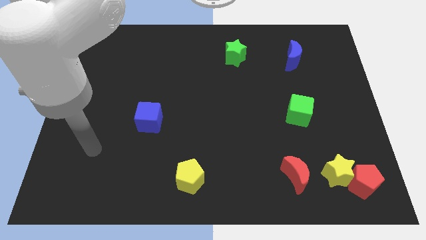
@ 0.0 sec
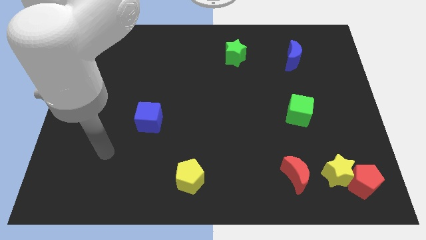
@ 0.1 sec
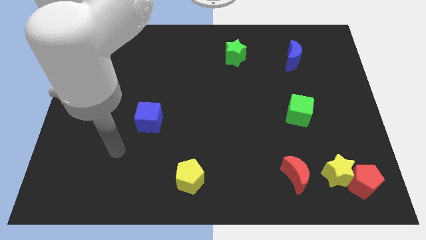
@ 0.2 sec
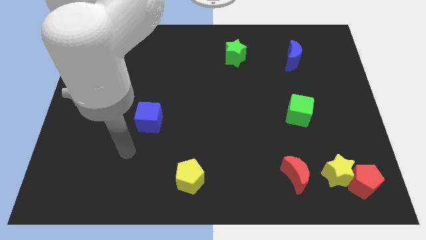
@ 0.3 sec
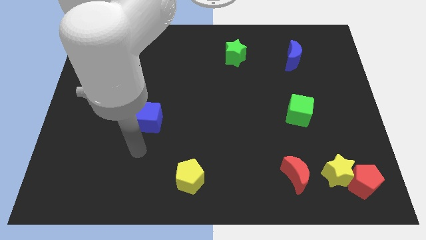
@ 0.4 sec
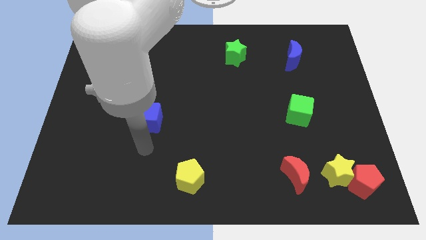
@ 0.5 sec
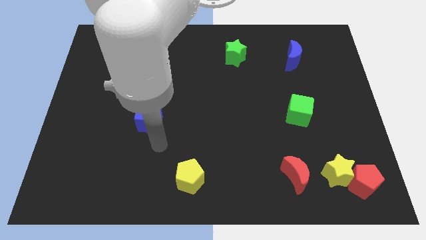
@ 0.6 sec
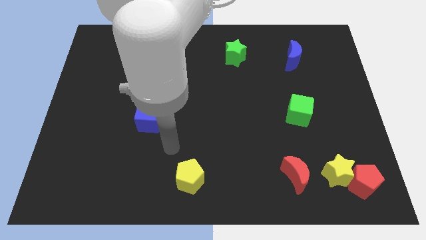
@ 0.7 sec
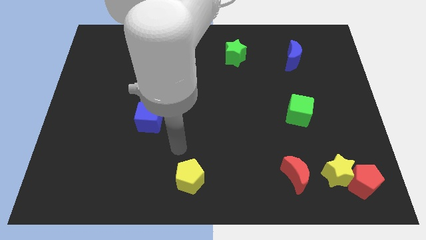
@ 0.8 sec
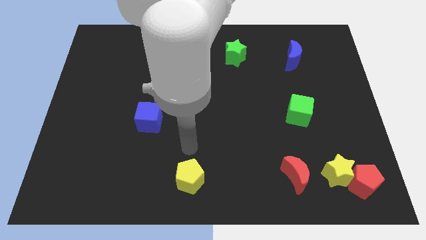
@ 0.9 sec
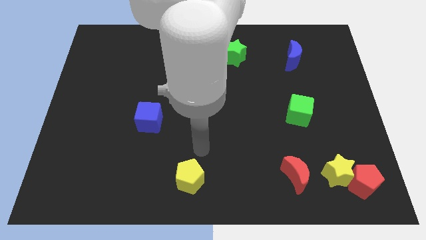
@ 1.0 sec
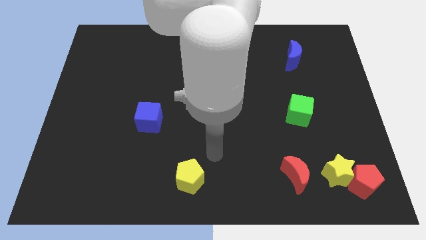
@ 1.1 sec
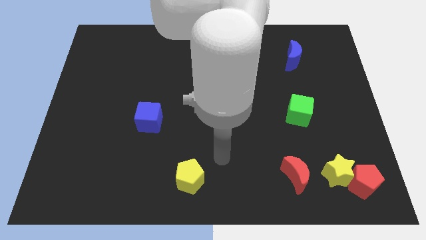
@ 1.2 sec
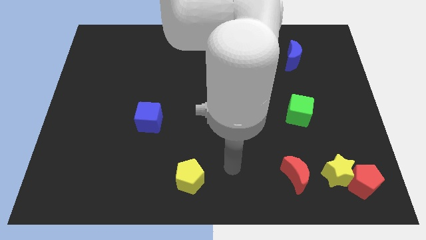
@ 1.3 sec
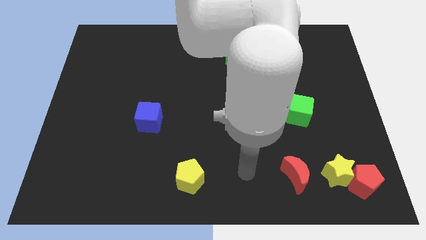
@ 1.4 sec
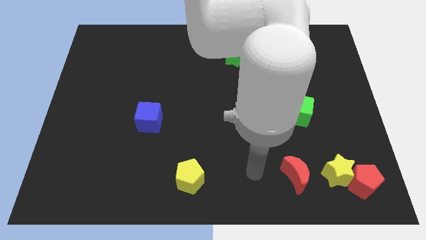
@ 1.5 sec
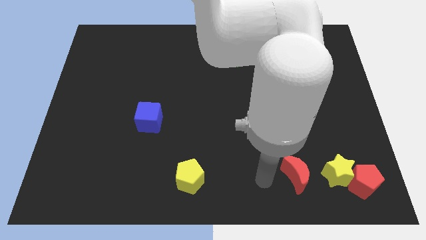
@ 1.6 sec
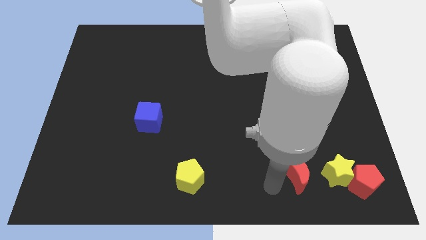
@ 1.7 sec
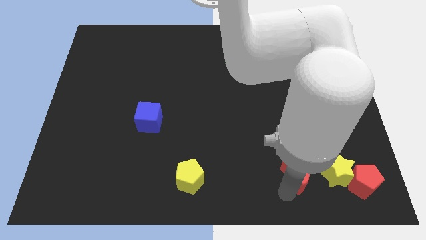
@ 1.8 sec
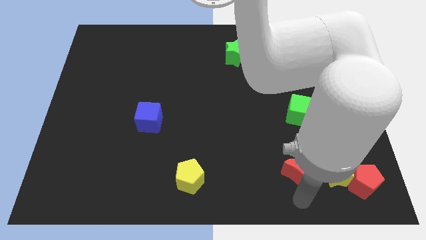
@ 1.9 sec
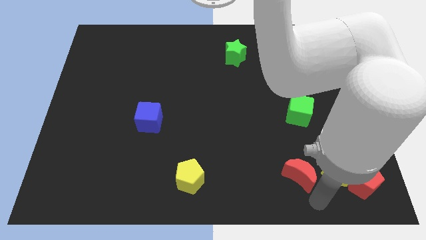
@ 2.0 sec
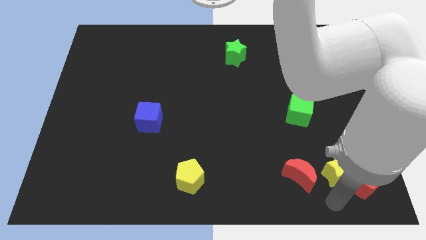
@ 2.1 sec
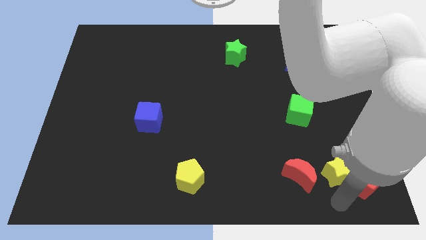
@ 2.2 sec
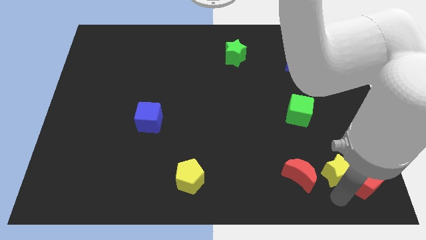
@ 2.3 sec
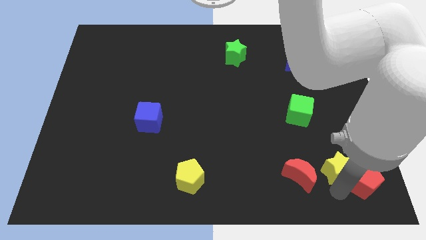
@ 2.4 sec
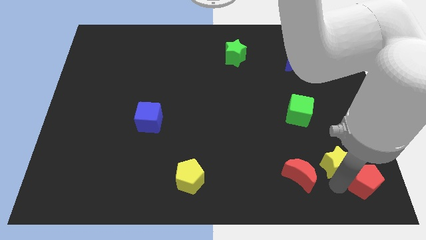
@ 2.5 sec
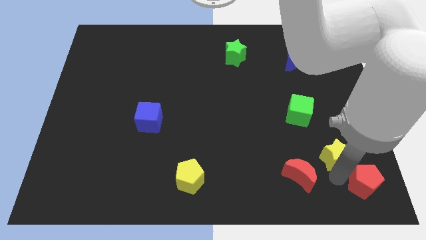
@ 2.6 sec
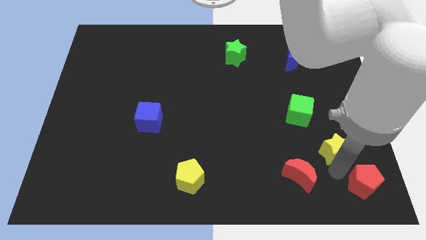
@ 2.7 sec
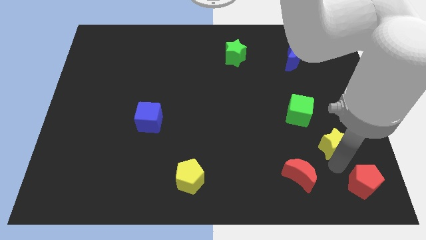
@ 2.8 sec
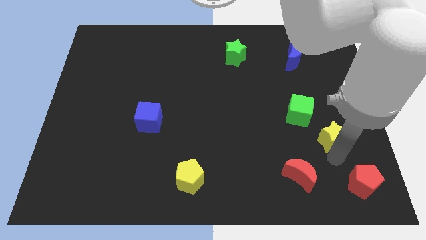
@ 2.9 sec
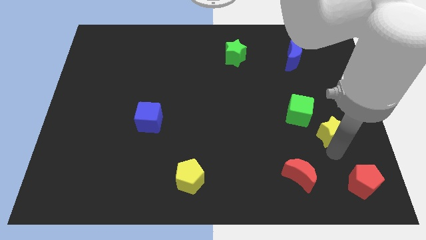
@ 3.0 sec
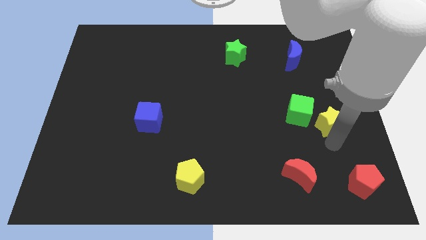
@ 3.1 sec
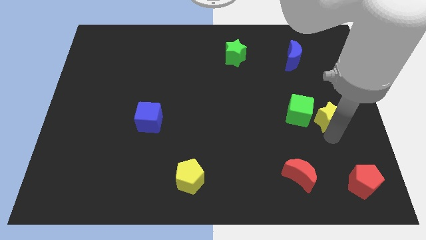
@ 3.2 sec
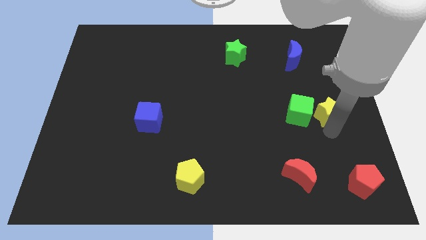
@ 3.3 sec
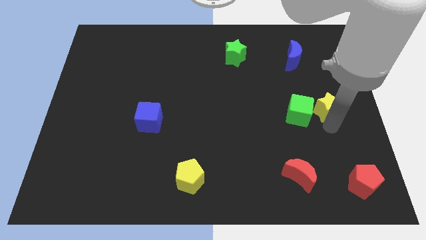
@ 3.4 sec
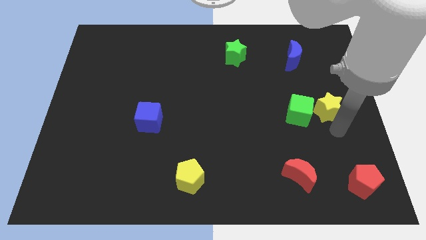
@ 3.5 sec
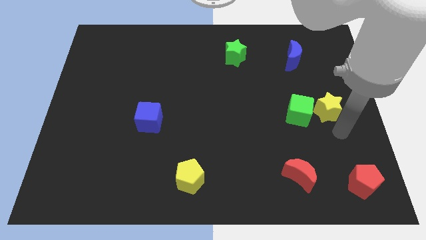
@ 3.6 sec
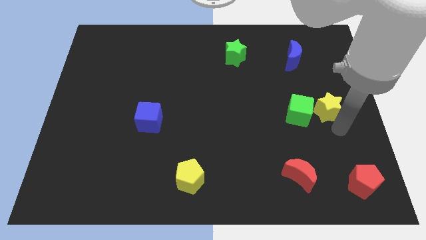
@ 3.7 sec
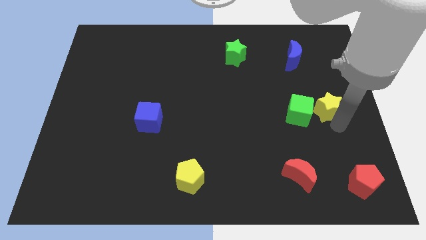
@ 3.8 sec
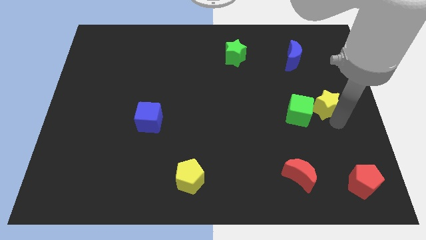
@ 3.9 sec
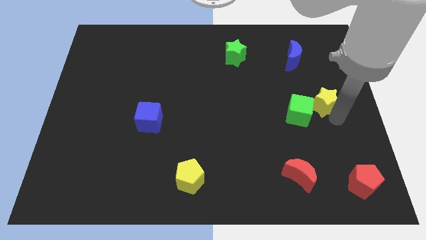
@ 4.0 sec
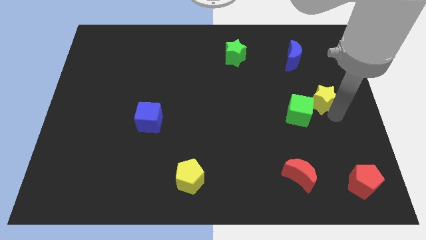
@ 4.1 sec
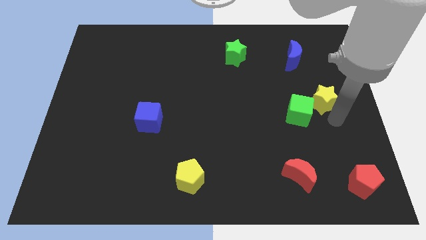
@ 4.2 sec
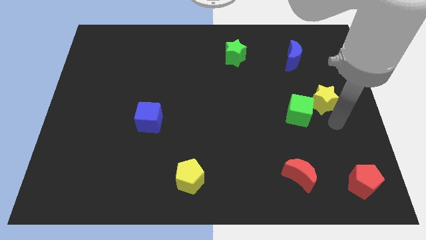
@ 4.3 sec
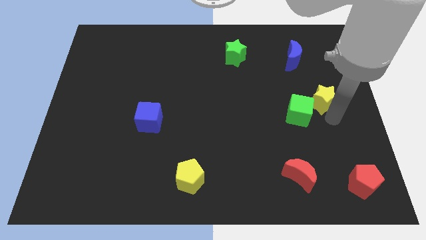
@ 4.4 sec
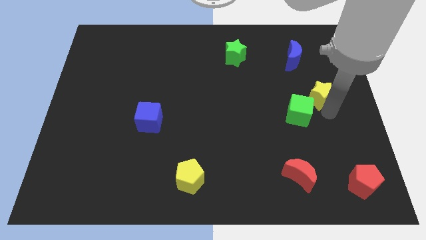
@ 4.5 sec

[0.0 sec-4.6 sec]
push the yellow star up

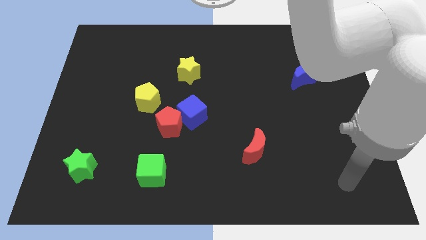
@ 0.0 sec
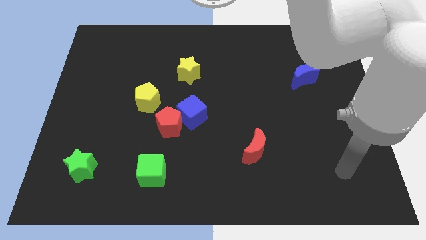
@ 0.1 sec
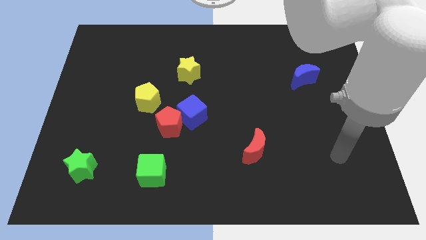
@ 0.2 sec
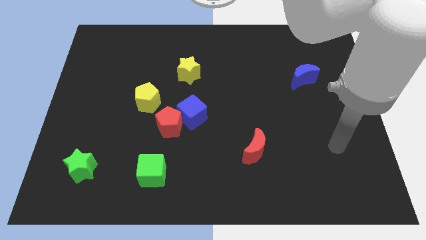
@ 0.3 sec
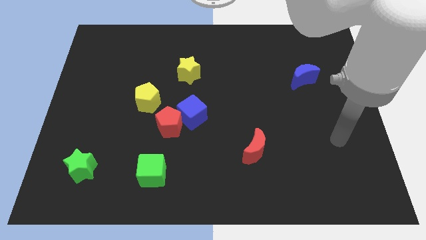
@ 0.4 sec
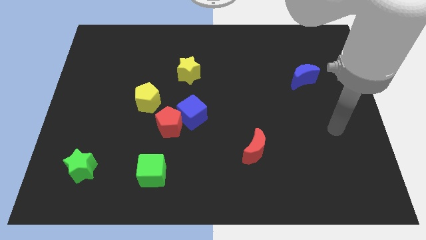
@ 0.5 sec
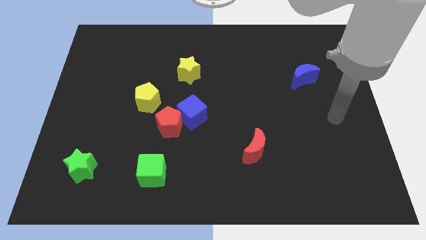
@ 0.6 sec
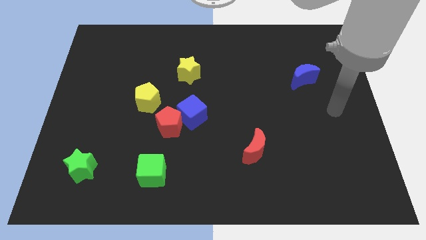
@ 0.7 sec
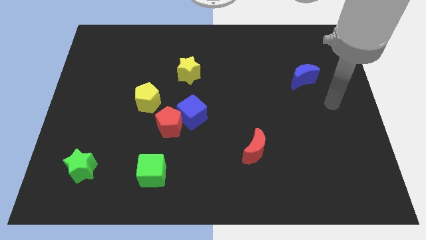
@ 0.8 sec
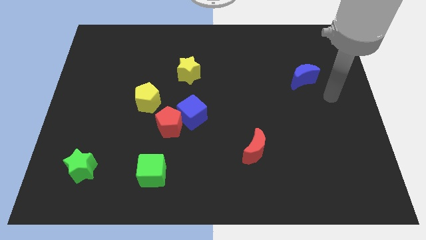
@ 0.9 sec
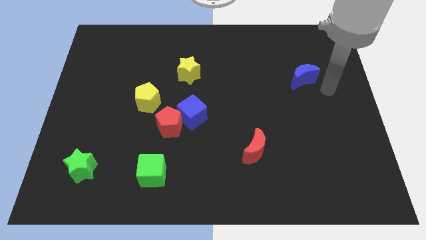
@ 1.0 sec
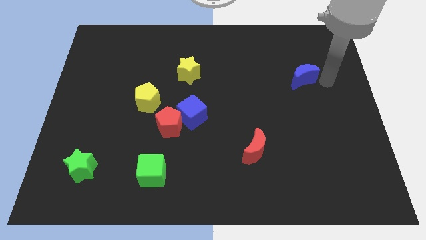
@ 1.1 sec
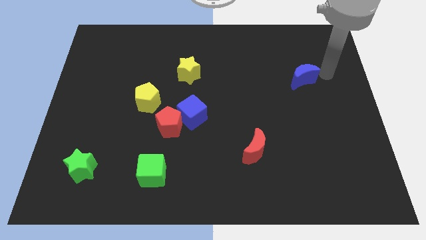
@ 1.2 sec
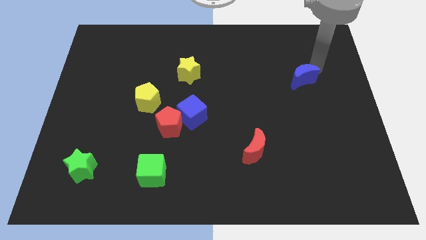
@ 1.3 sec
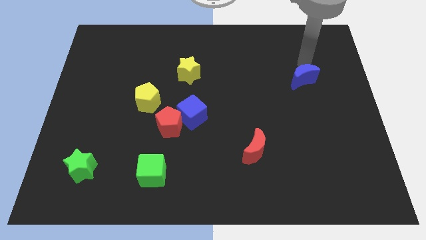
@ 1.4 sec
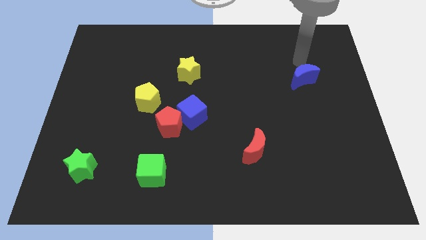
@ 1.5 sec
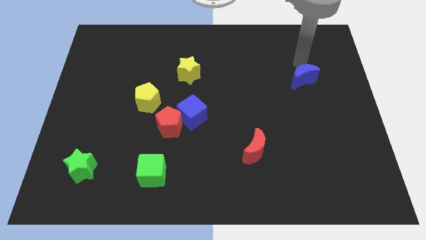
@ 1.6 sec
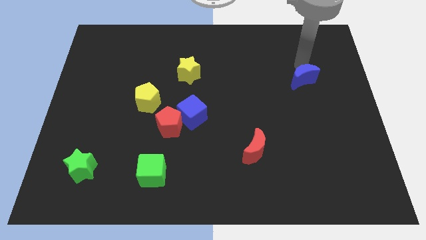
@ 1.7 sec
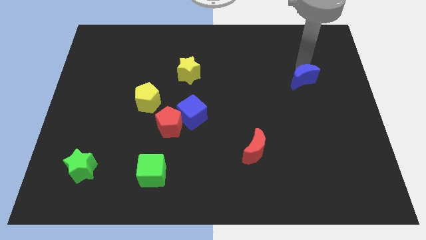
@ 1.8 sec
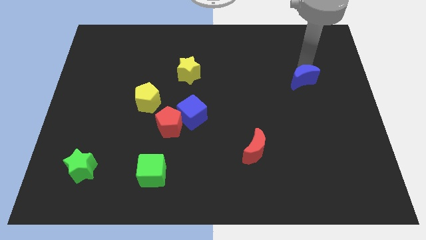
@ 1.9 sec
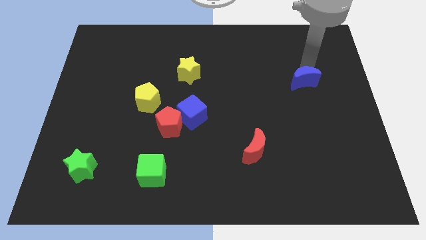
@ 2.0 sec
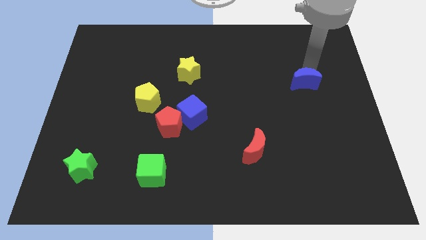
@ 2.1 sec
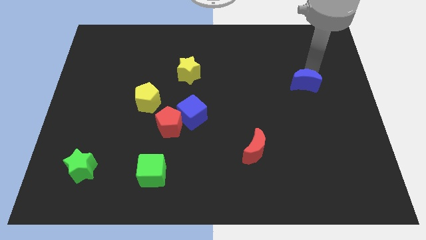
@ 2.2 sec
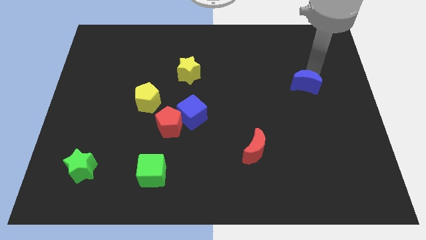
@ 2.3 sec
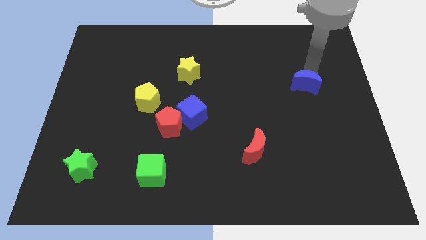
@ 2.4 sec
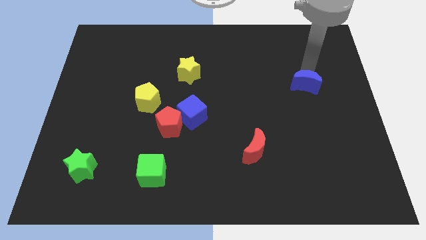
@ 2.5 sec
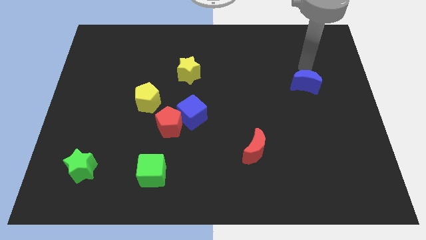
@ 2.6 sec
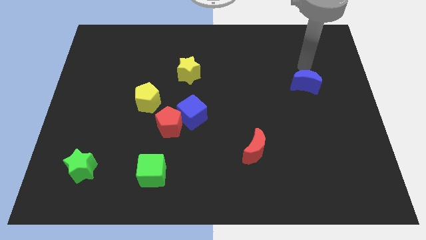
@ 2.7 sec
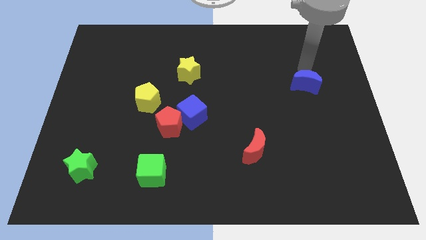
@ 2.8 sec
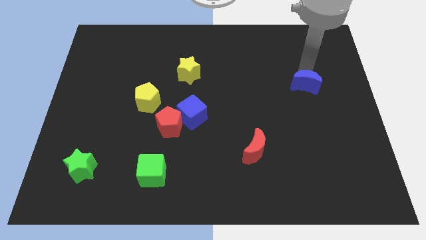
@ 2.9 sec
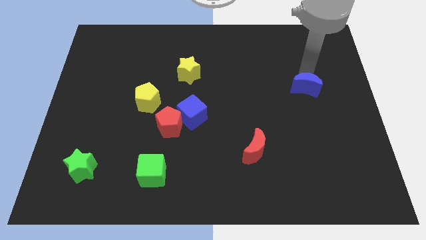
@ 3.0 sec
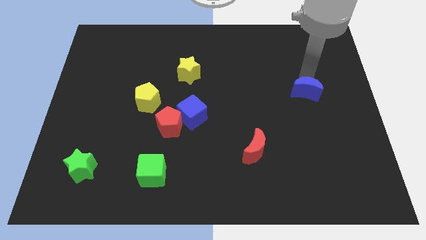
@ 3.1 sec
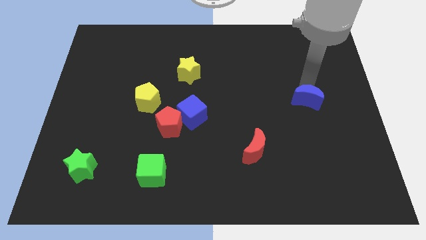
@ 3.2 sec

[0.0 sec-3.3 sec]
slightly push the blue moon downwards

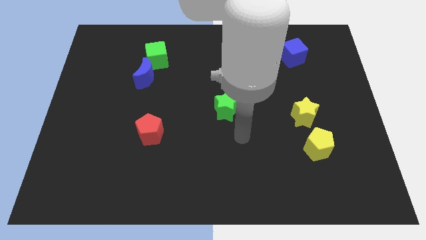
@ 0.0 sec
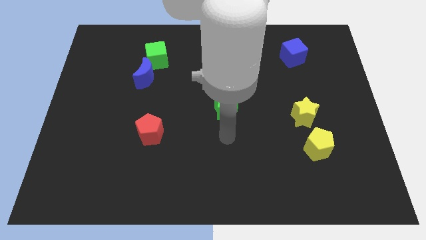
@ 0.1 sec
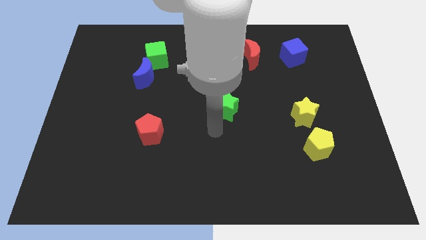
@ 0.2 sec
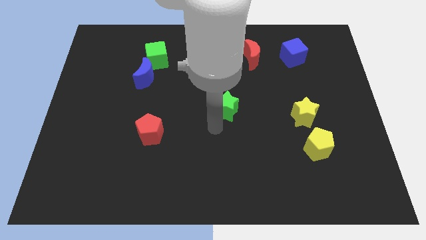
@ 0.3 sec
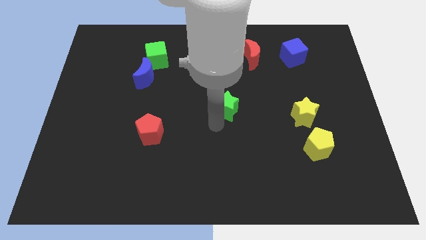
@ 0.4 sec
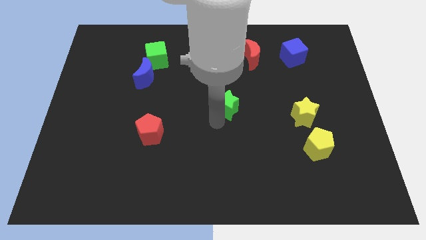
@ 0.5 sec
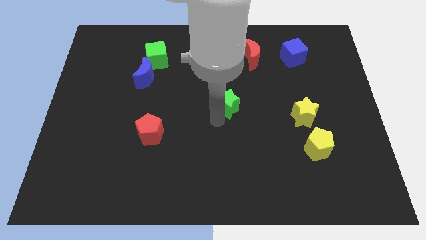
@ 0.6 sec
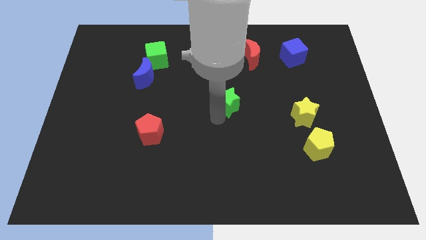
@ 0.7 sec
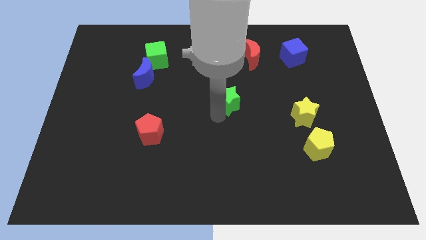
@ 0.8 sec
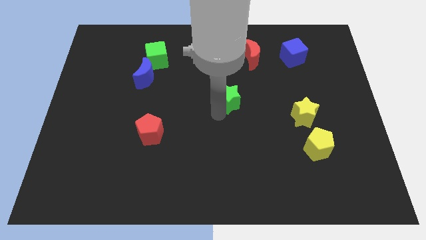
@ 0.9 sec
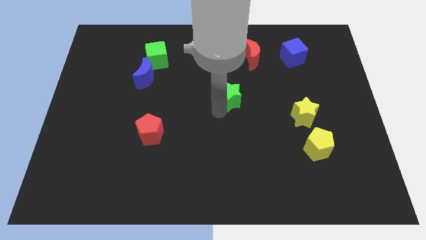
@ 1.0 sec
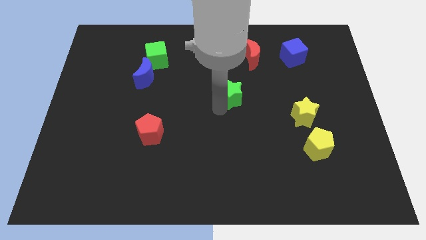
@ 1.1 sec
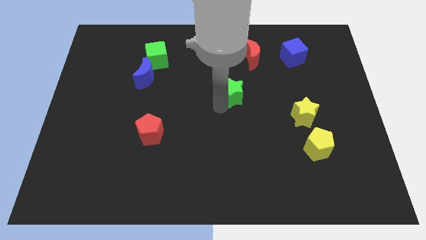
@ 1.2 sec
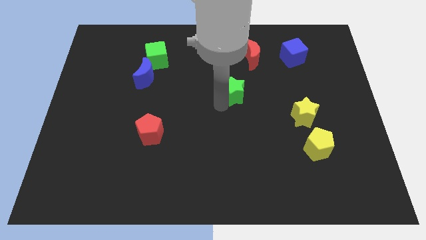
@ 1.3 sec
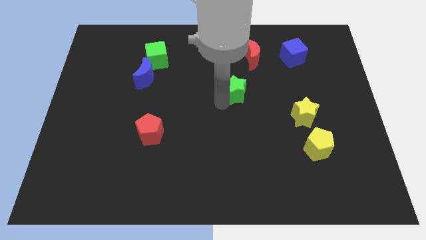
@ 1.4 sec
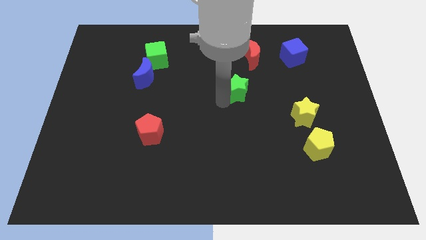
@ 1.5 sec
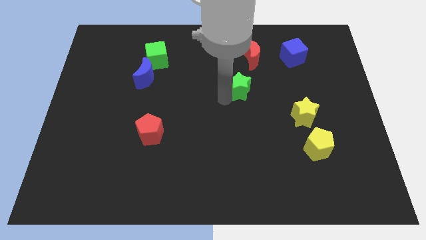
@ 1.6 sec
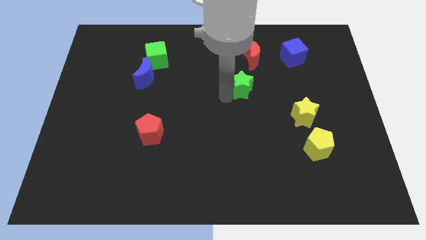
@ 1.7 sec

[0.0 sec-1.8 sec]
slightly move the green star up and to the right diagonally
